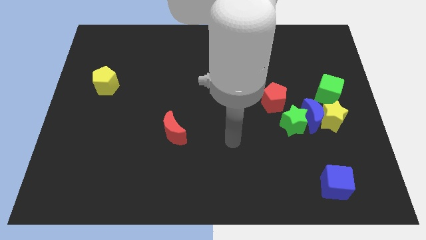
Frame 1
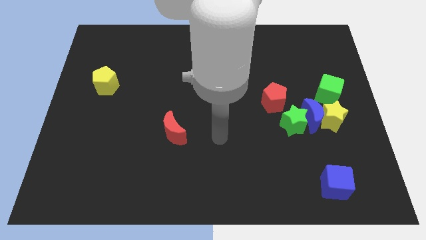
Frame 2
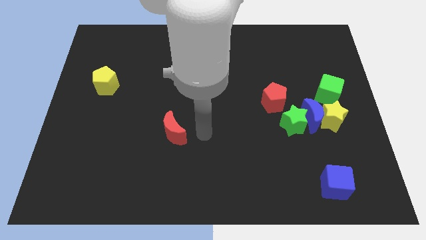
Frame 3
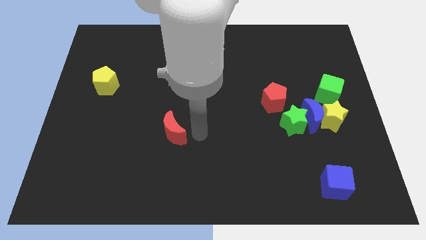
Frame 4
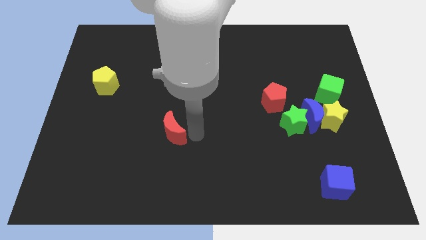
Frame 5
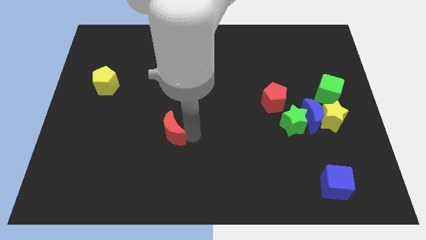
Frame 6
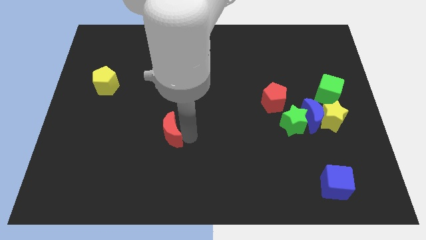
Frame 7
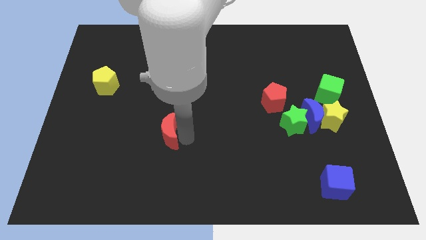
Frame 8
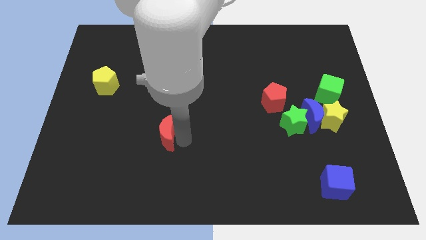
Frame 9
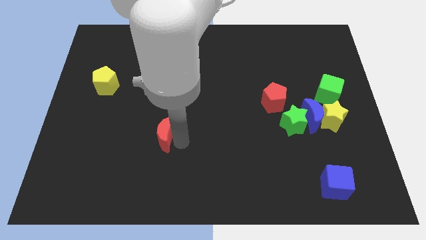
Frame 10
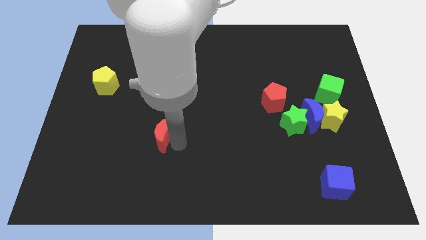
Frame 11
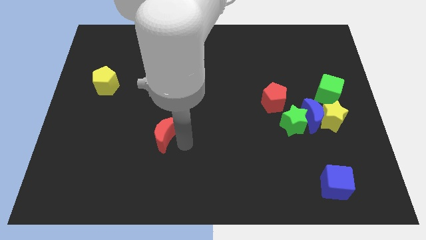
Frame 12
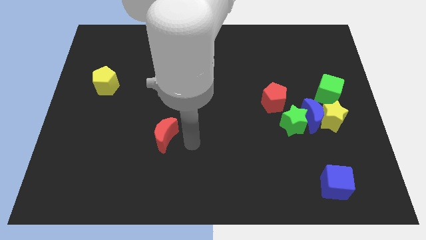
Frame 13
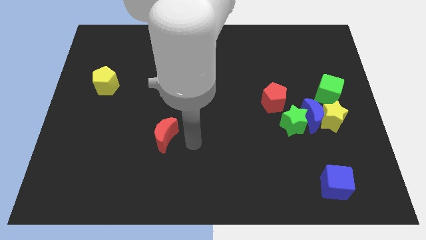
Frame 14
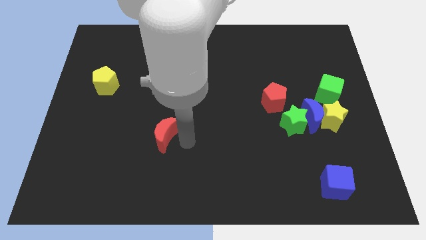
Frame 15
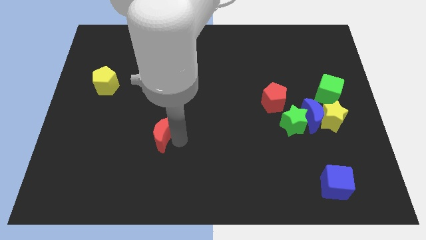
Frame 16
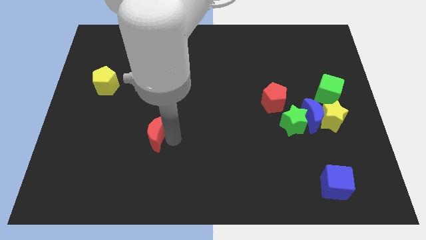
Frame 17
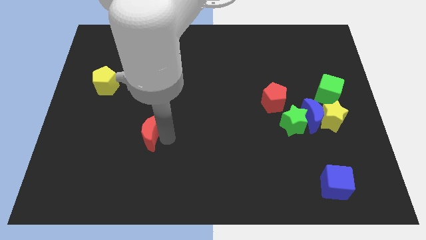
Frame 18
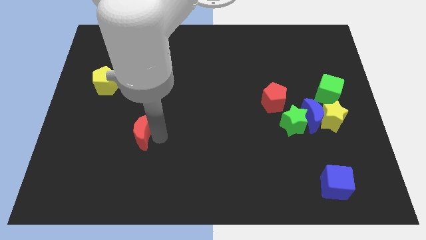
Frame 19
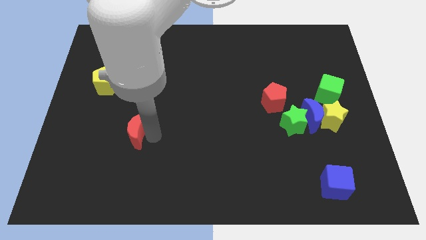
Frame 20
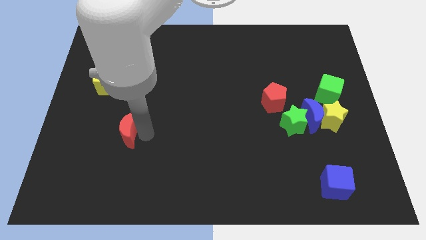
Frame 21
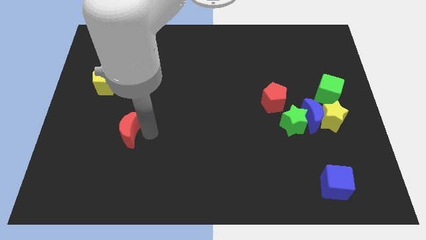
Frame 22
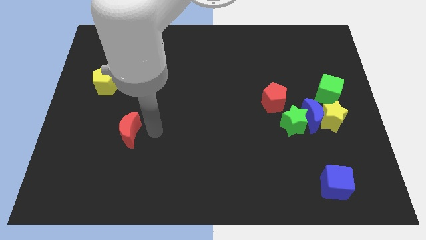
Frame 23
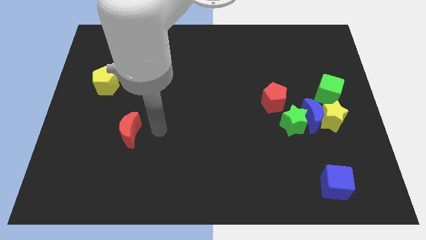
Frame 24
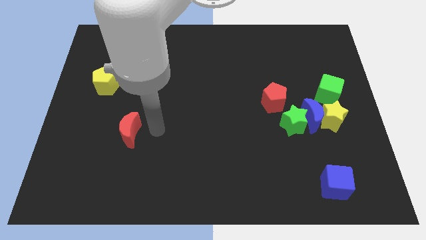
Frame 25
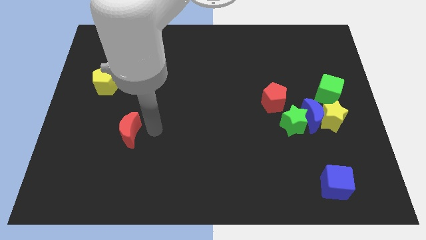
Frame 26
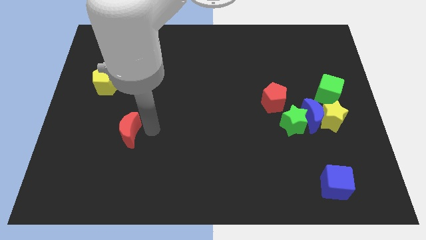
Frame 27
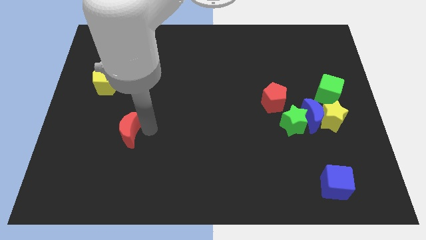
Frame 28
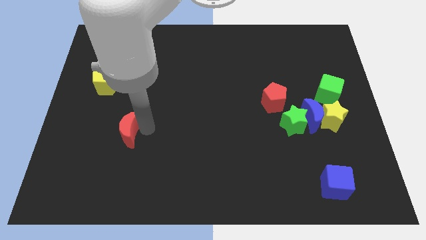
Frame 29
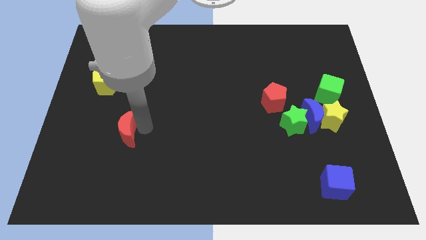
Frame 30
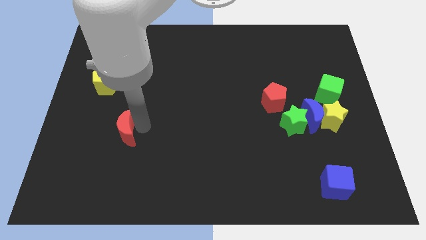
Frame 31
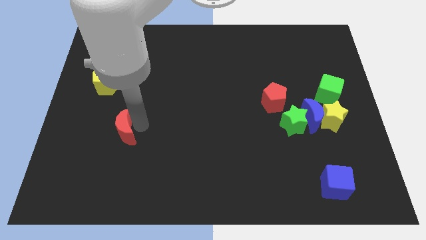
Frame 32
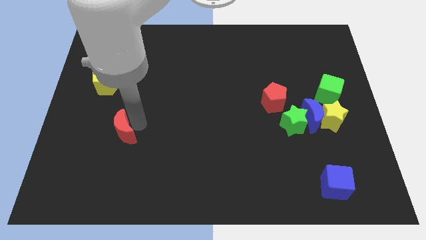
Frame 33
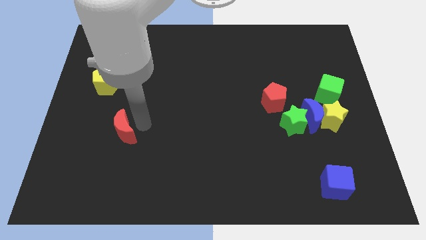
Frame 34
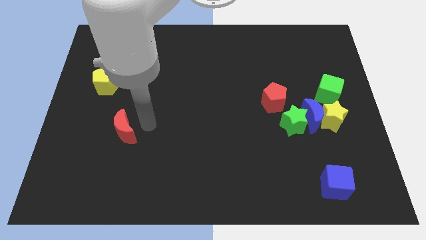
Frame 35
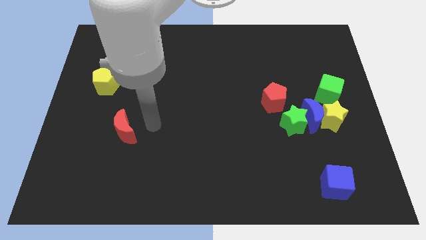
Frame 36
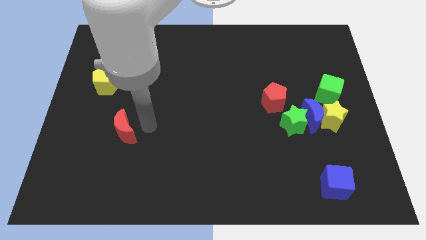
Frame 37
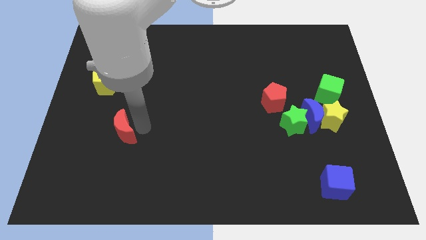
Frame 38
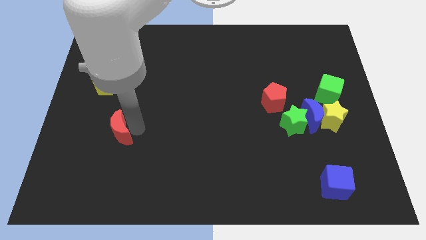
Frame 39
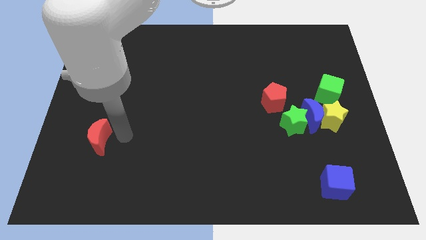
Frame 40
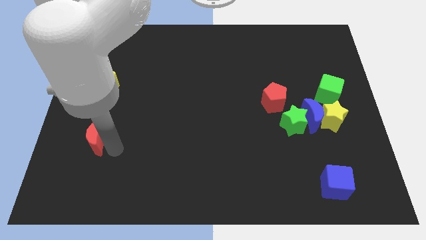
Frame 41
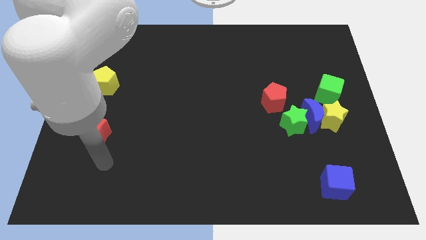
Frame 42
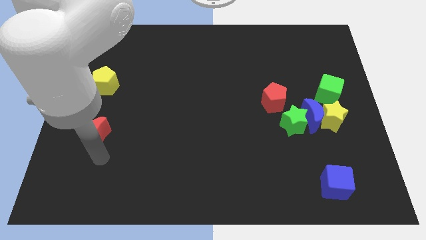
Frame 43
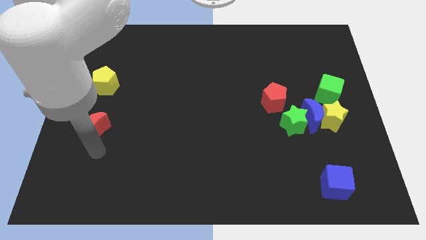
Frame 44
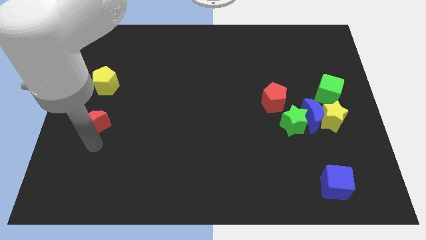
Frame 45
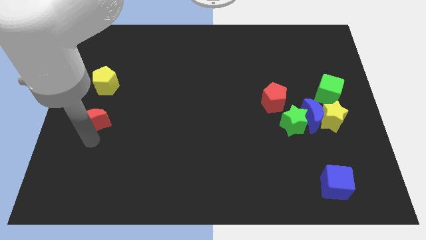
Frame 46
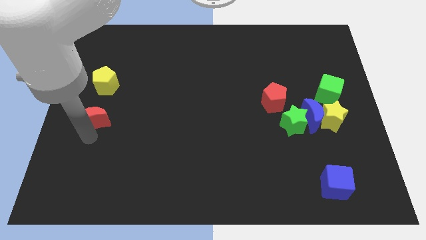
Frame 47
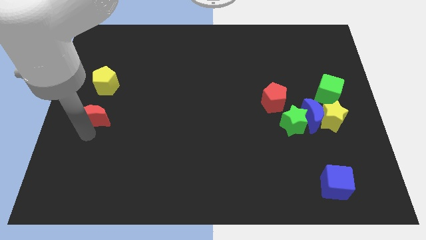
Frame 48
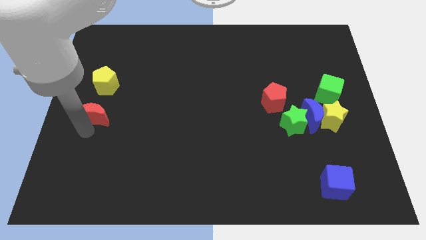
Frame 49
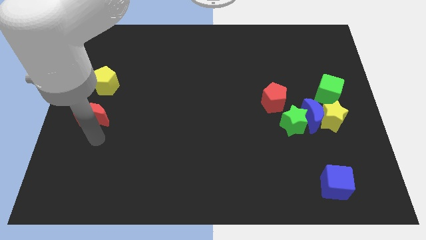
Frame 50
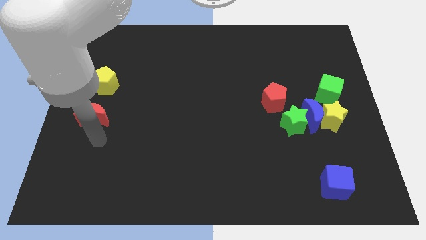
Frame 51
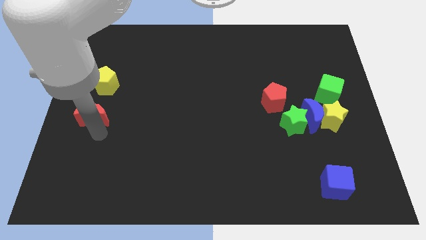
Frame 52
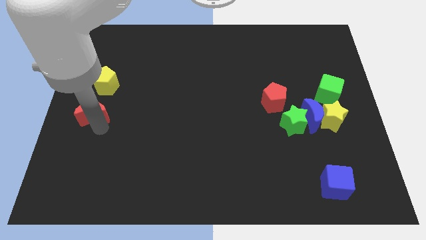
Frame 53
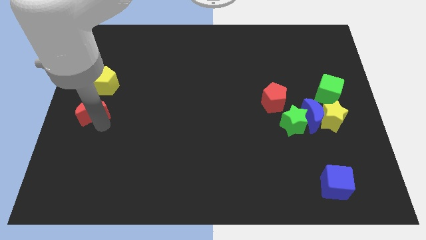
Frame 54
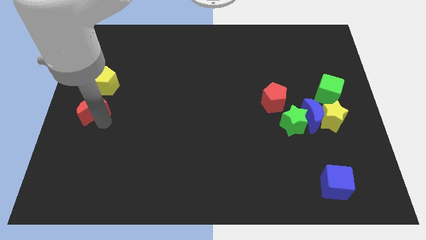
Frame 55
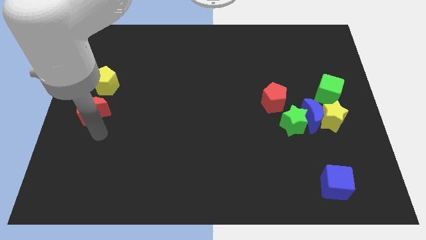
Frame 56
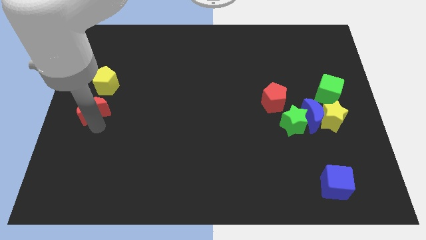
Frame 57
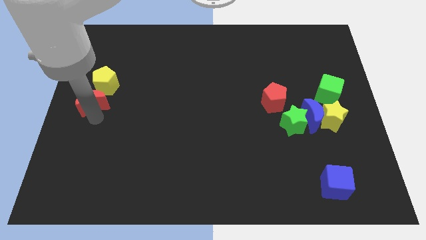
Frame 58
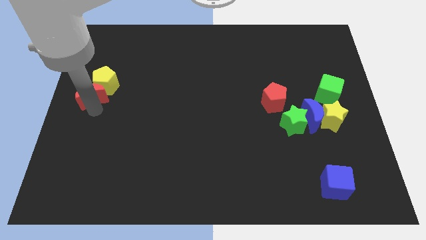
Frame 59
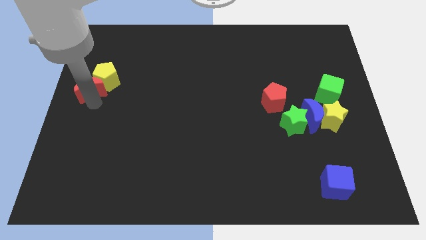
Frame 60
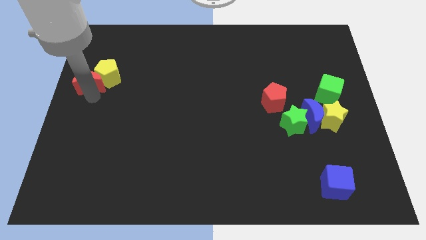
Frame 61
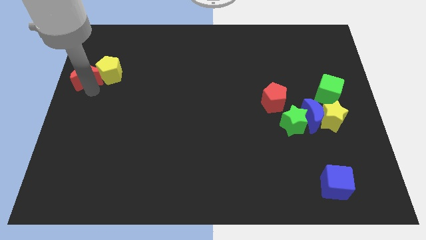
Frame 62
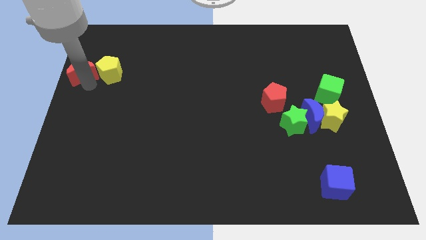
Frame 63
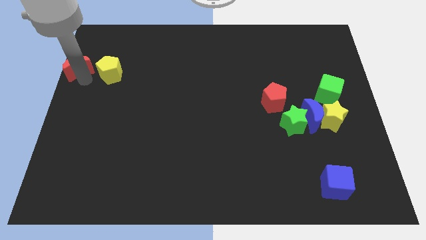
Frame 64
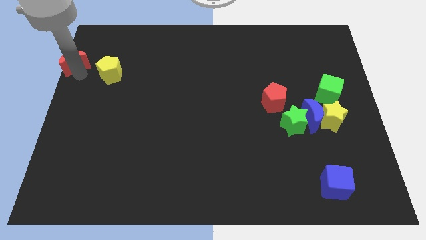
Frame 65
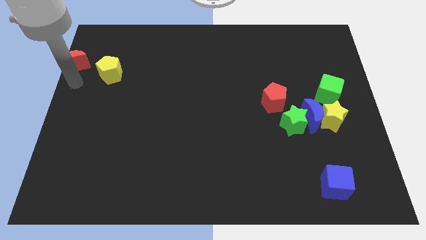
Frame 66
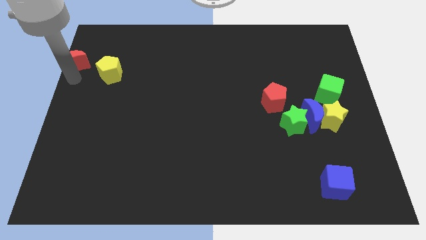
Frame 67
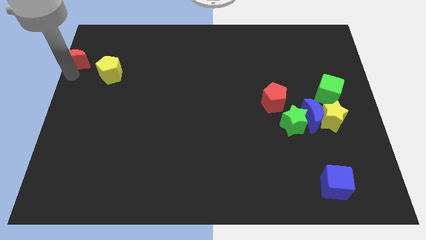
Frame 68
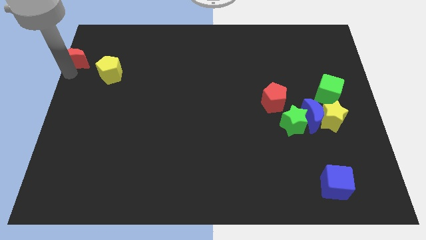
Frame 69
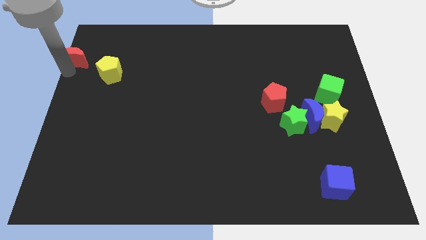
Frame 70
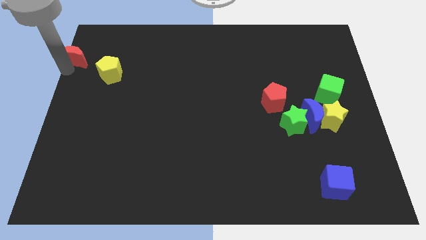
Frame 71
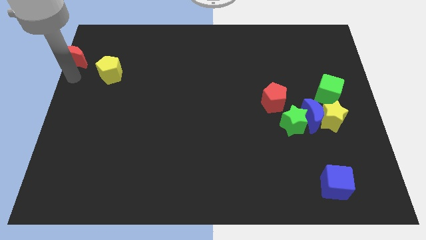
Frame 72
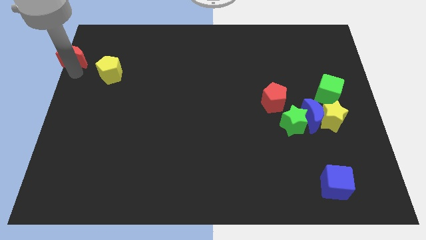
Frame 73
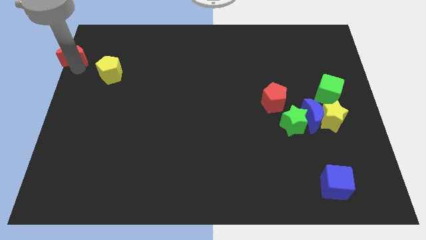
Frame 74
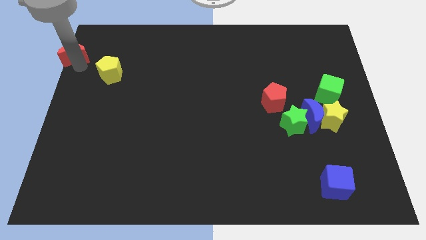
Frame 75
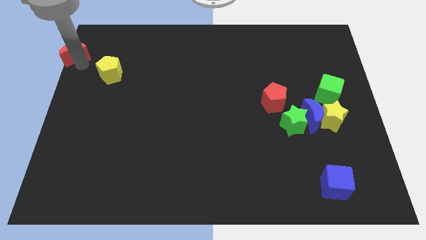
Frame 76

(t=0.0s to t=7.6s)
move the red moon to the top left
